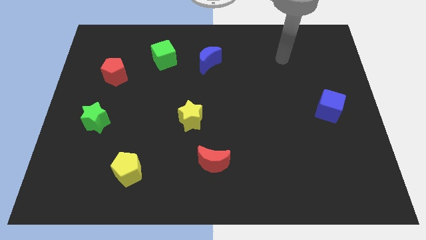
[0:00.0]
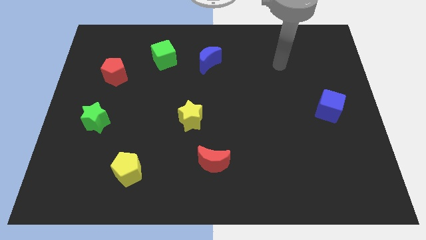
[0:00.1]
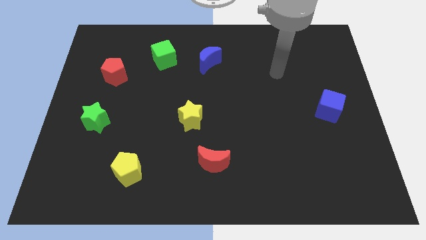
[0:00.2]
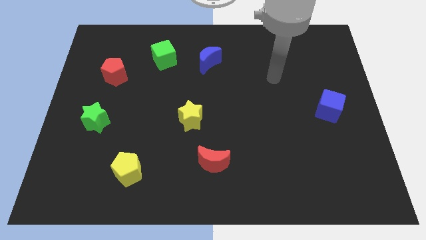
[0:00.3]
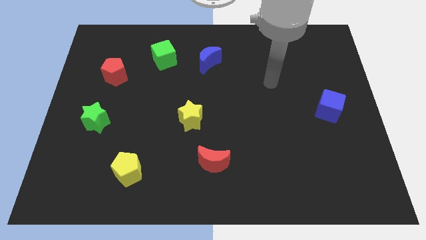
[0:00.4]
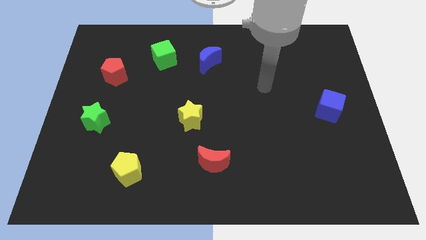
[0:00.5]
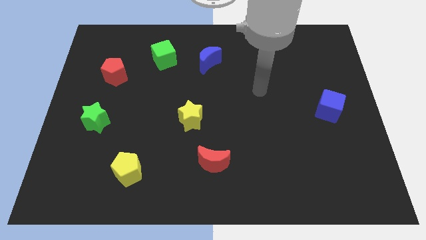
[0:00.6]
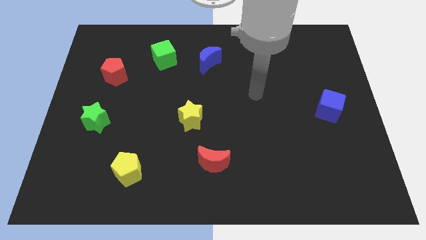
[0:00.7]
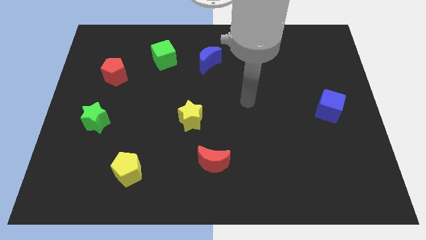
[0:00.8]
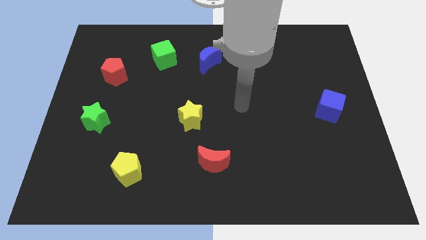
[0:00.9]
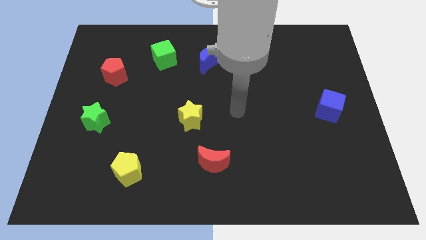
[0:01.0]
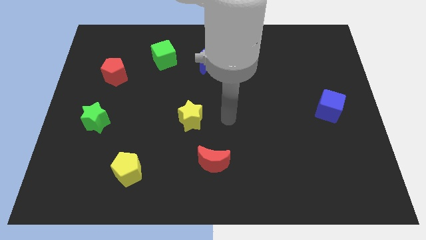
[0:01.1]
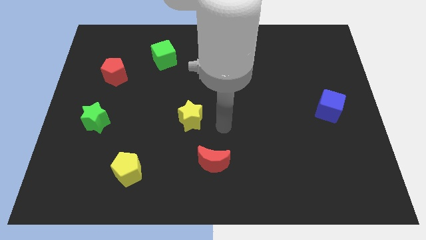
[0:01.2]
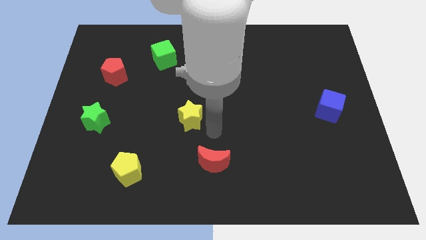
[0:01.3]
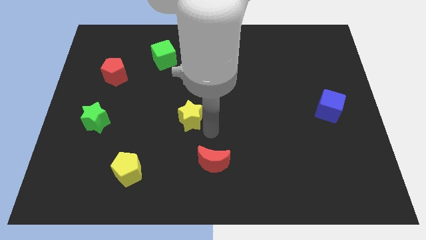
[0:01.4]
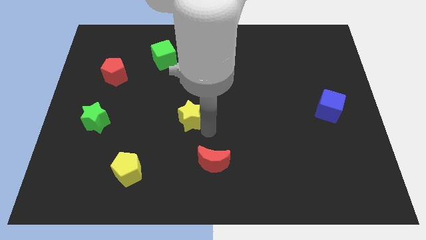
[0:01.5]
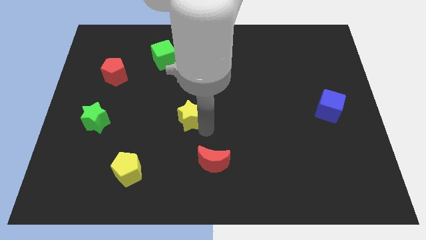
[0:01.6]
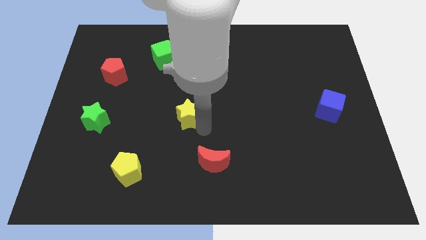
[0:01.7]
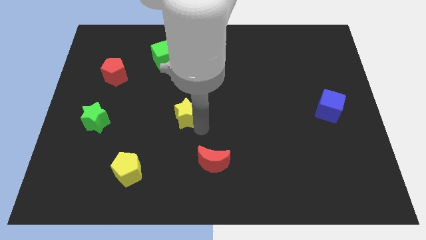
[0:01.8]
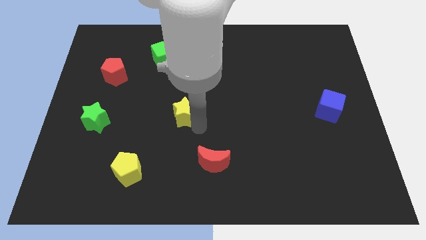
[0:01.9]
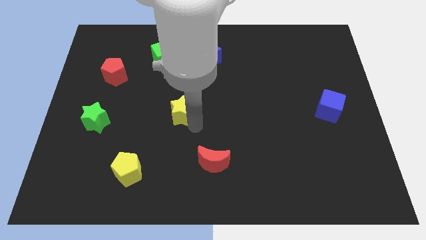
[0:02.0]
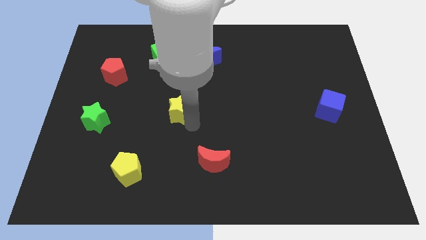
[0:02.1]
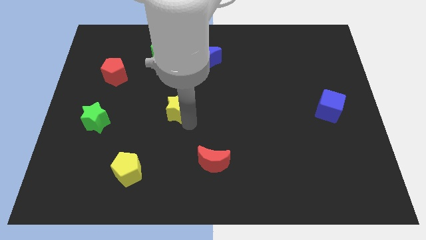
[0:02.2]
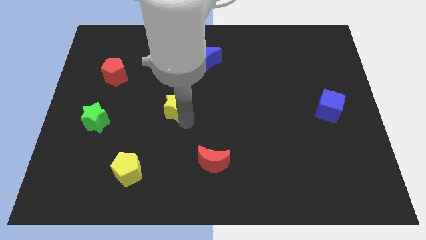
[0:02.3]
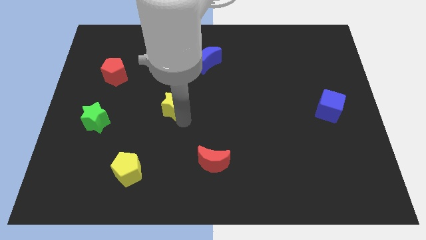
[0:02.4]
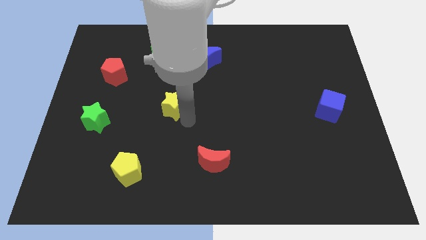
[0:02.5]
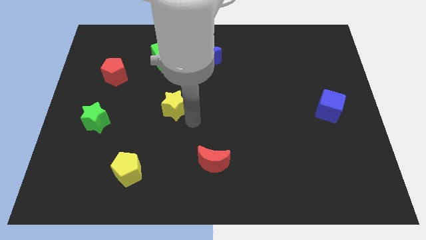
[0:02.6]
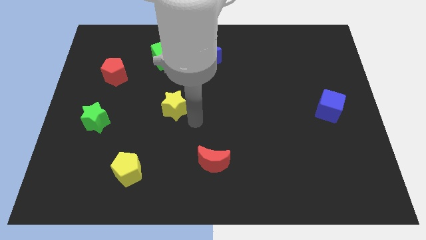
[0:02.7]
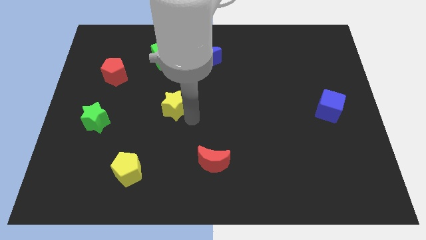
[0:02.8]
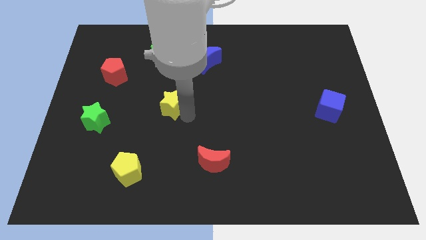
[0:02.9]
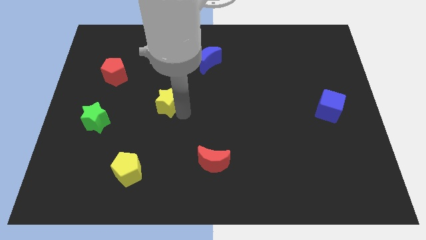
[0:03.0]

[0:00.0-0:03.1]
slightly move the yellow star up and to the left

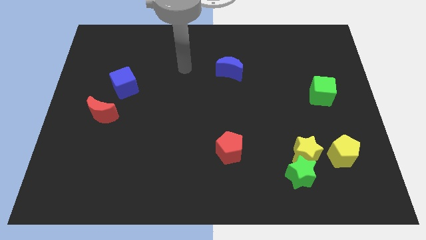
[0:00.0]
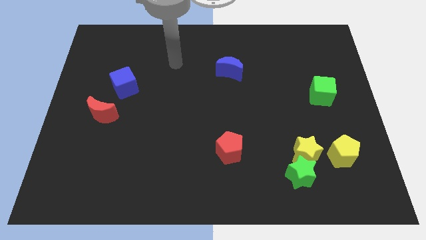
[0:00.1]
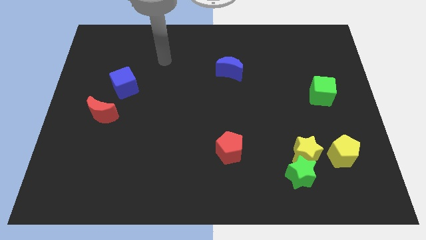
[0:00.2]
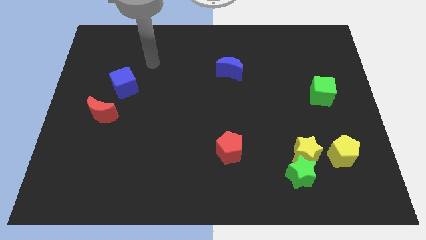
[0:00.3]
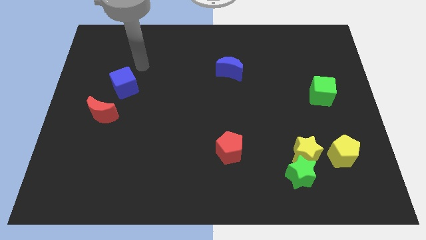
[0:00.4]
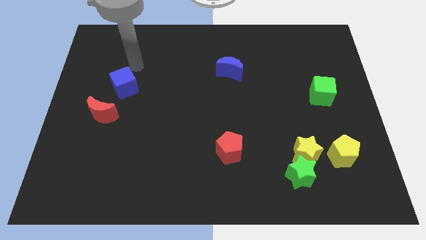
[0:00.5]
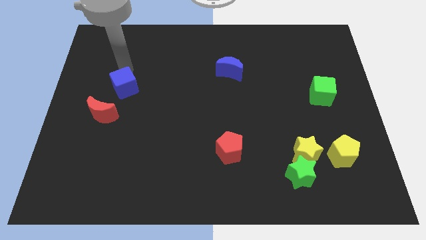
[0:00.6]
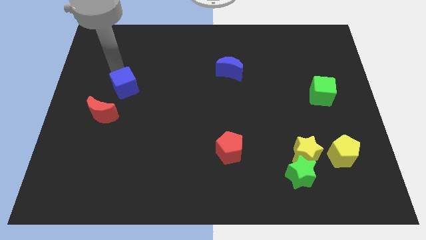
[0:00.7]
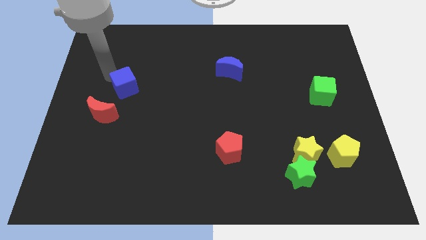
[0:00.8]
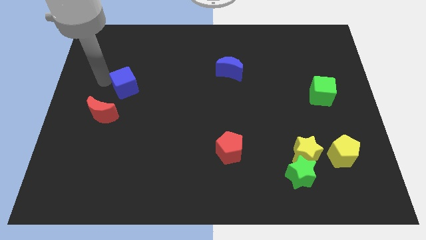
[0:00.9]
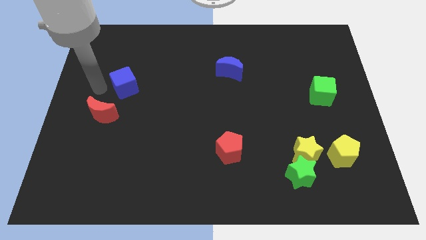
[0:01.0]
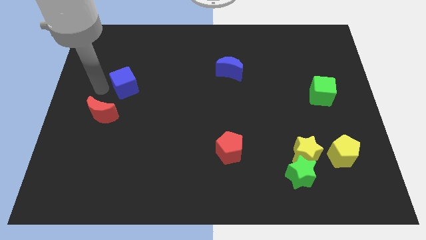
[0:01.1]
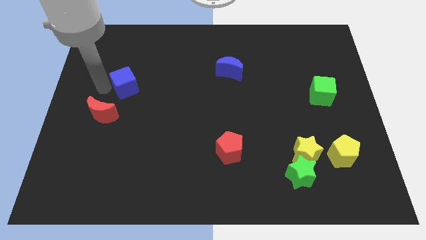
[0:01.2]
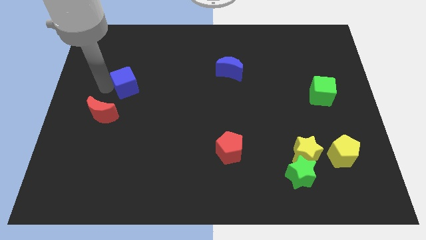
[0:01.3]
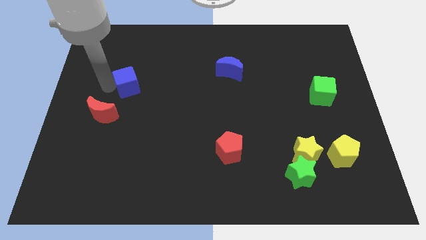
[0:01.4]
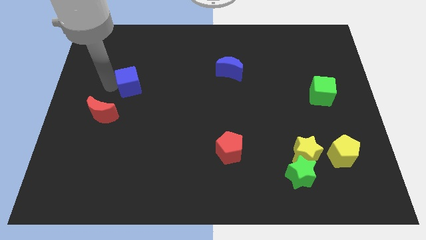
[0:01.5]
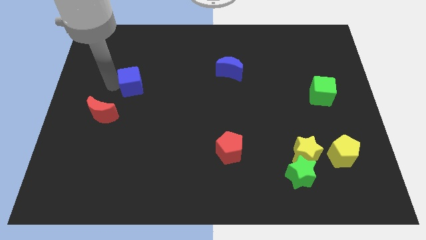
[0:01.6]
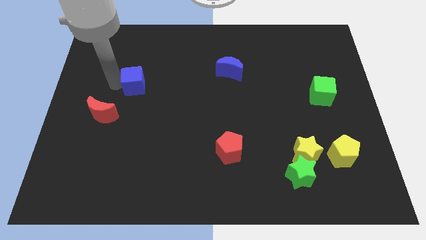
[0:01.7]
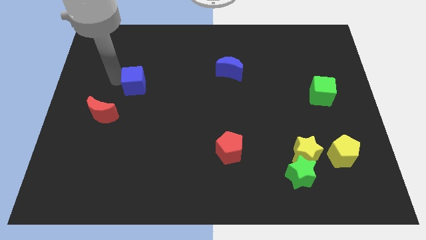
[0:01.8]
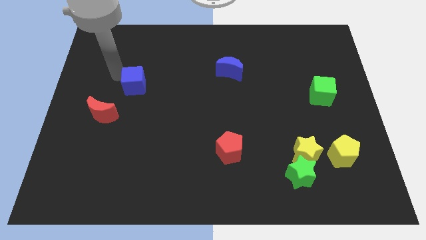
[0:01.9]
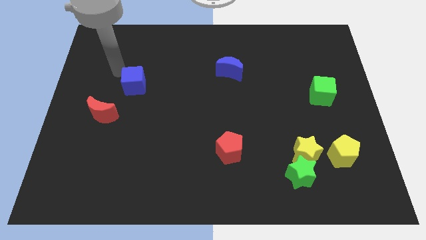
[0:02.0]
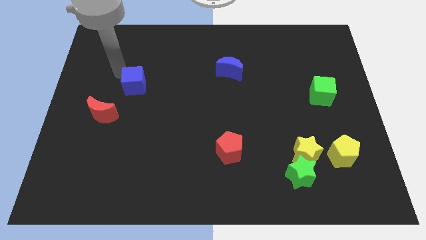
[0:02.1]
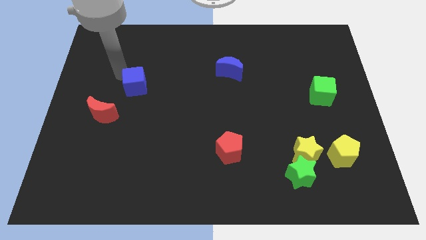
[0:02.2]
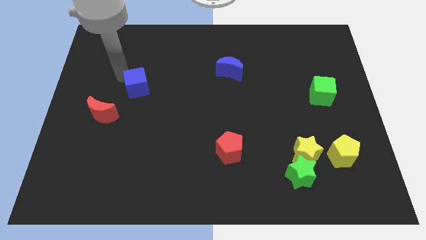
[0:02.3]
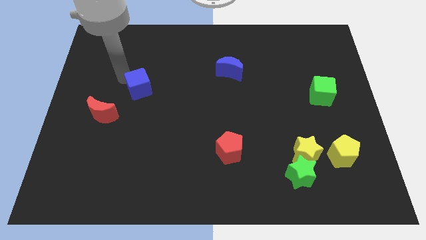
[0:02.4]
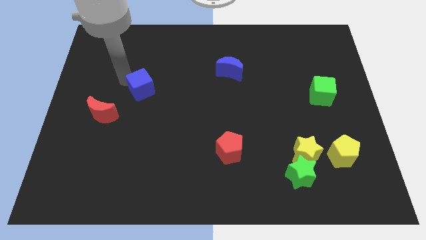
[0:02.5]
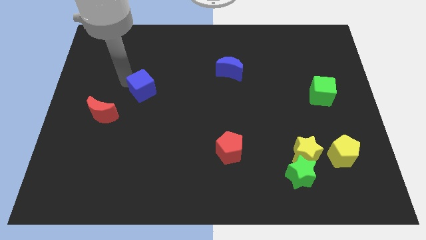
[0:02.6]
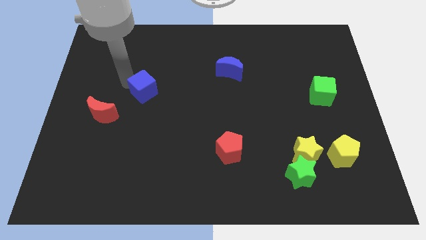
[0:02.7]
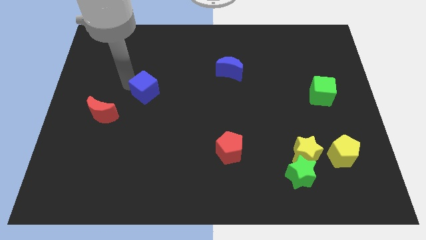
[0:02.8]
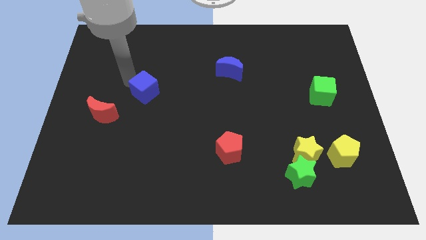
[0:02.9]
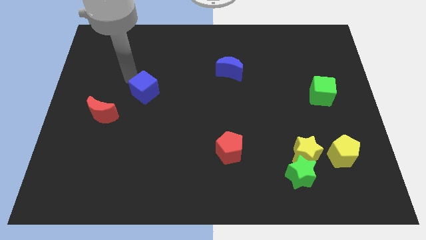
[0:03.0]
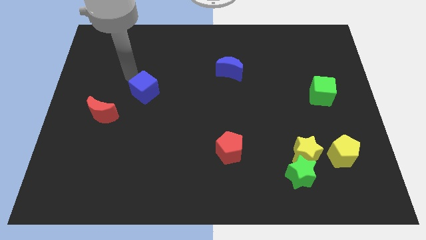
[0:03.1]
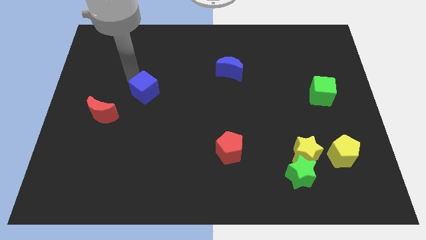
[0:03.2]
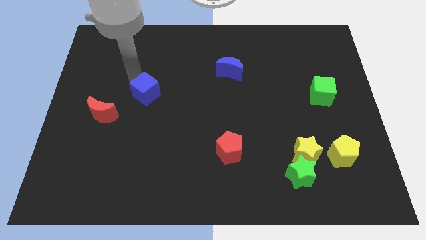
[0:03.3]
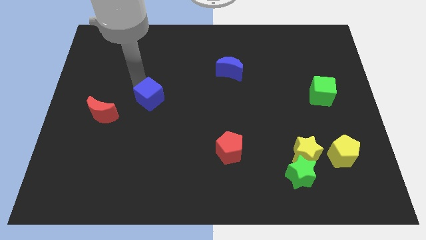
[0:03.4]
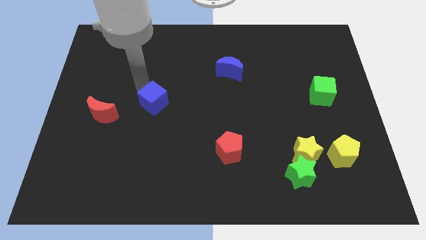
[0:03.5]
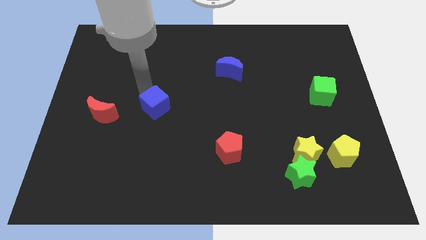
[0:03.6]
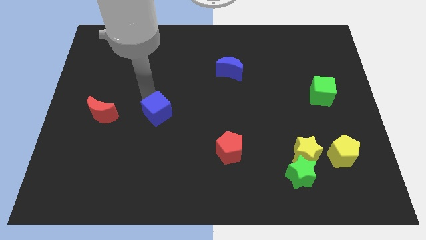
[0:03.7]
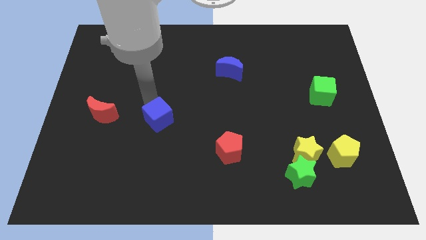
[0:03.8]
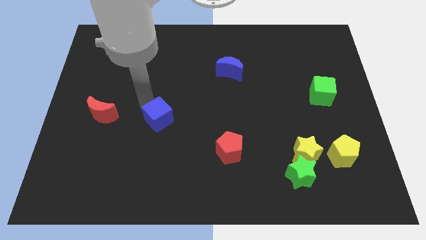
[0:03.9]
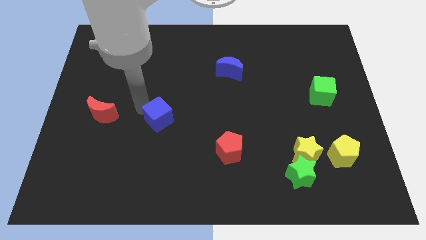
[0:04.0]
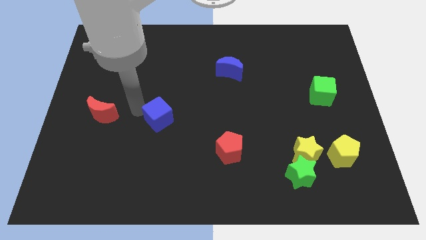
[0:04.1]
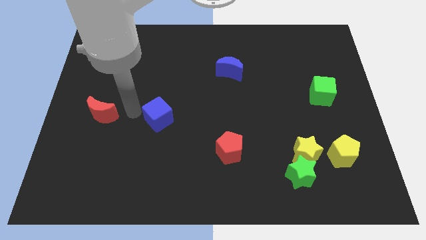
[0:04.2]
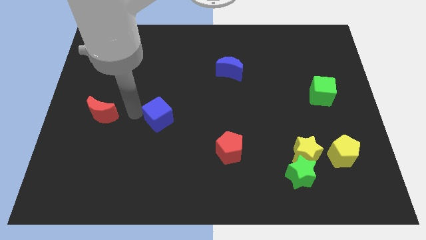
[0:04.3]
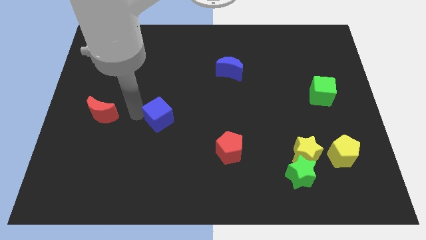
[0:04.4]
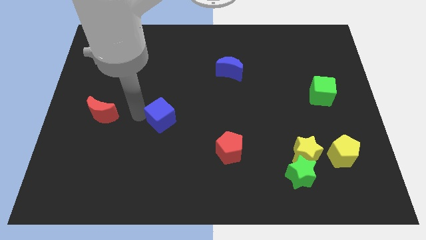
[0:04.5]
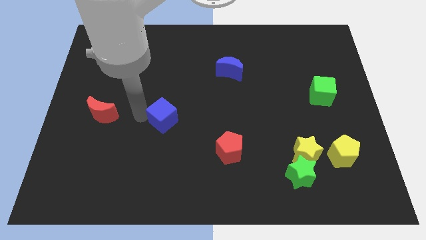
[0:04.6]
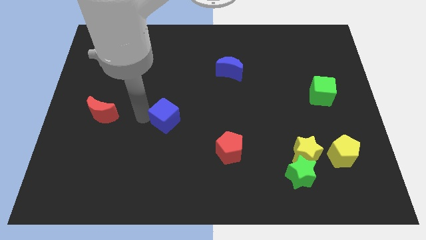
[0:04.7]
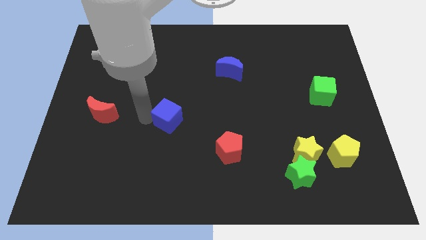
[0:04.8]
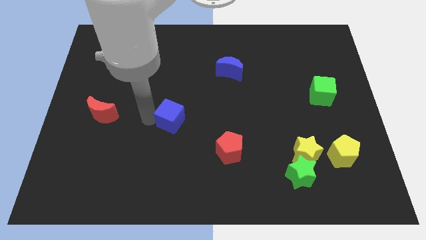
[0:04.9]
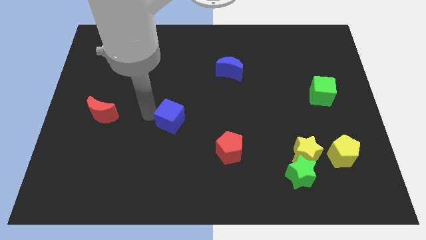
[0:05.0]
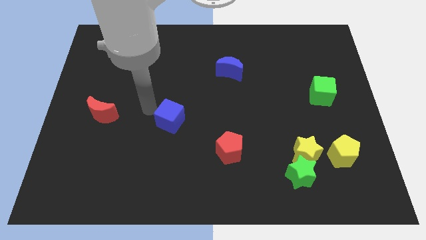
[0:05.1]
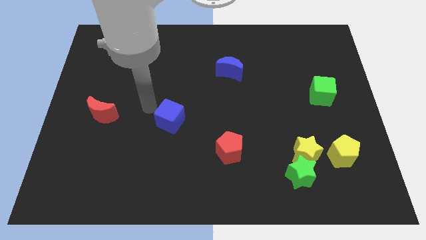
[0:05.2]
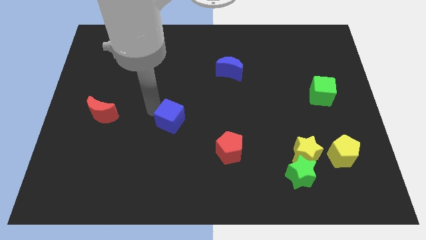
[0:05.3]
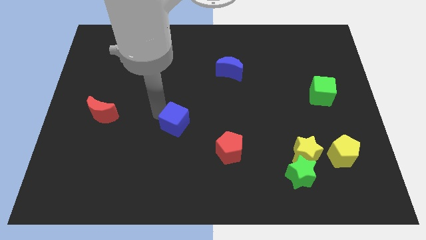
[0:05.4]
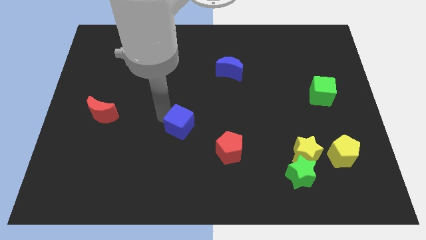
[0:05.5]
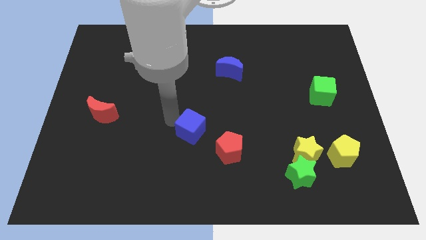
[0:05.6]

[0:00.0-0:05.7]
push the blue cube down and then right
